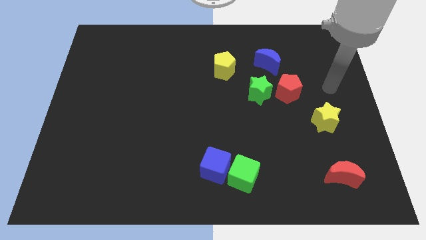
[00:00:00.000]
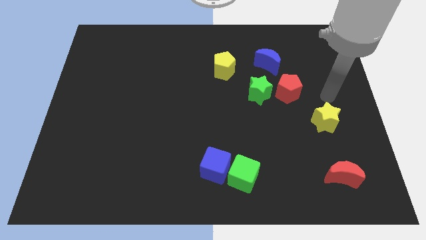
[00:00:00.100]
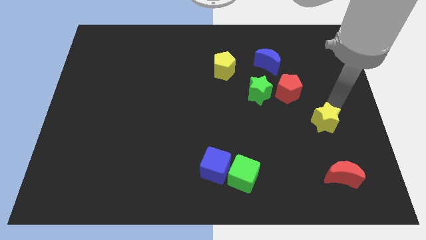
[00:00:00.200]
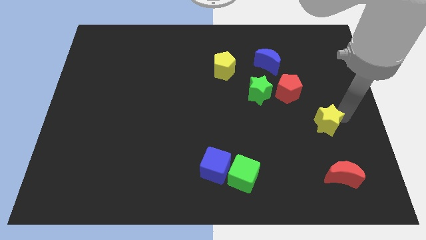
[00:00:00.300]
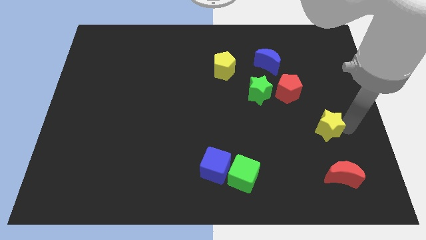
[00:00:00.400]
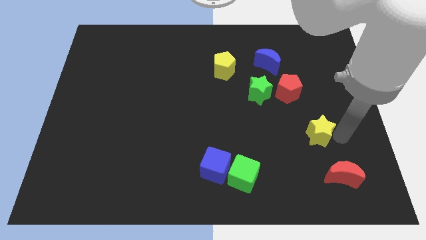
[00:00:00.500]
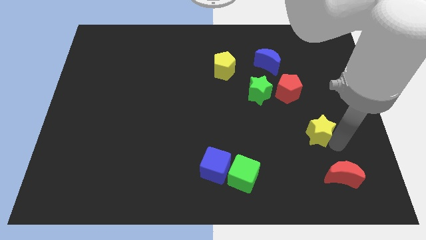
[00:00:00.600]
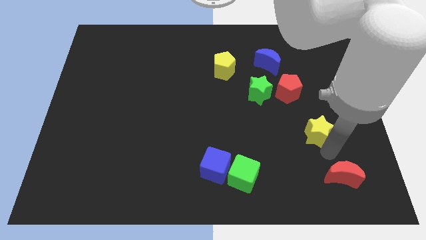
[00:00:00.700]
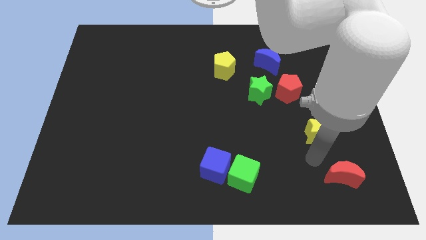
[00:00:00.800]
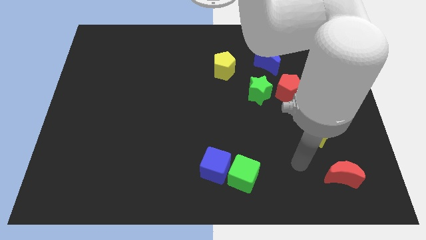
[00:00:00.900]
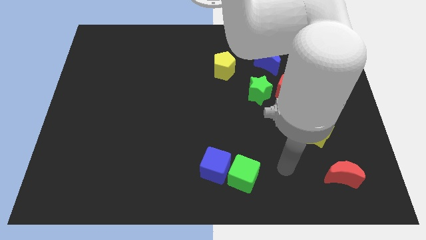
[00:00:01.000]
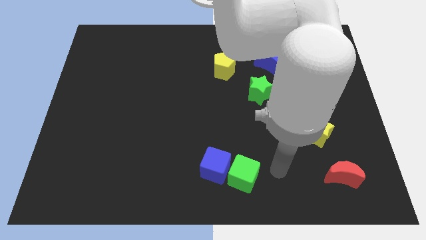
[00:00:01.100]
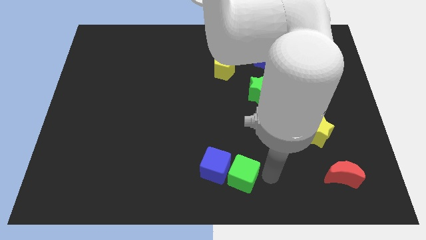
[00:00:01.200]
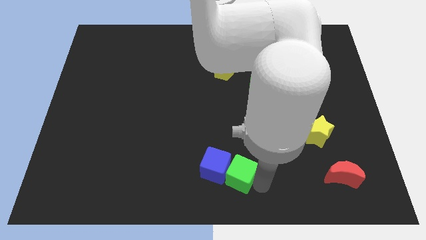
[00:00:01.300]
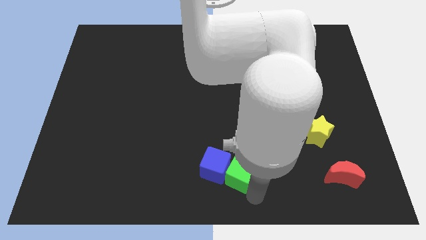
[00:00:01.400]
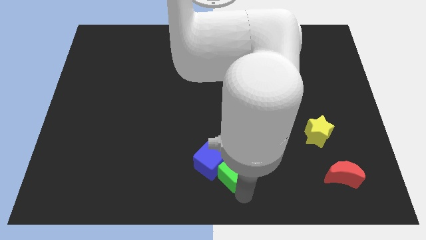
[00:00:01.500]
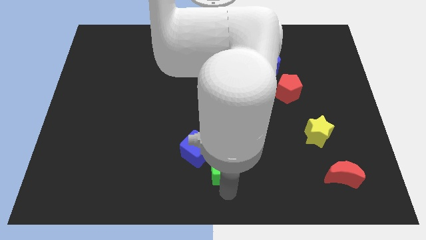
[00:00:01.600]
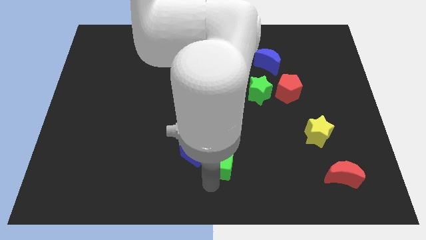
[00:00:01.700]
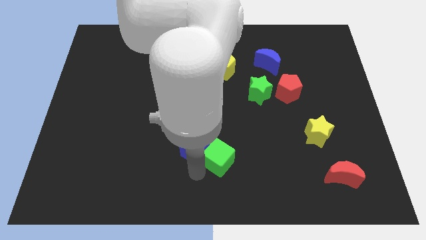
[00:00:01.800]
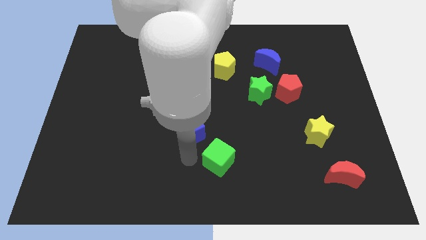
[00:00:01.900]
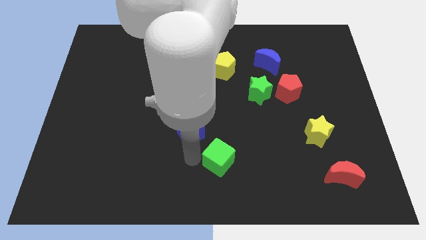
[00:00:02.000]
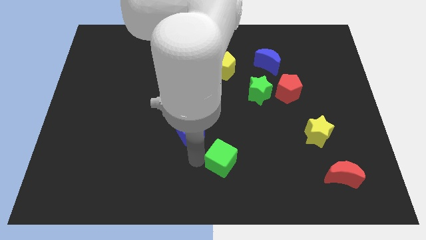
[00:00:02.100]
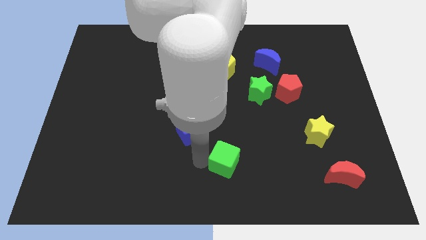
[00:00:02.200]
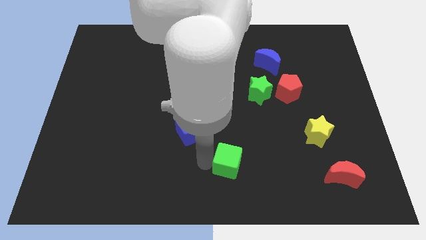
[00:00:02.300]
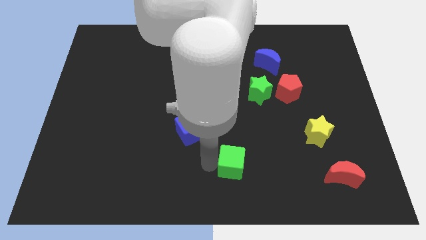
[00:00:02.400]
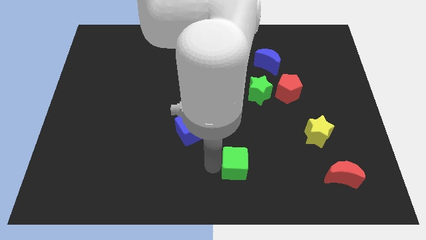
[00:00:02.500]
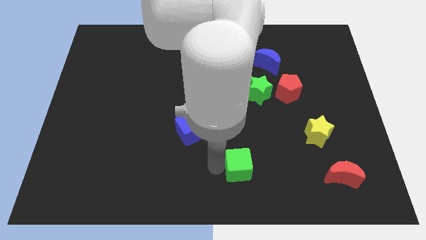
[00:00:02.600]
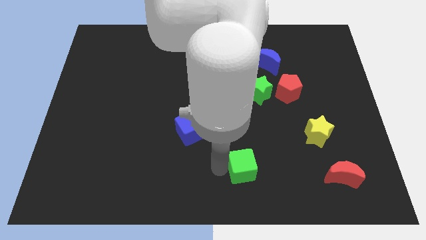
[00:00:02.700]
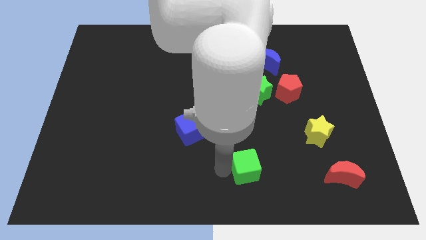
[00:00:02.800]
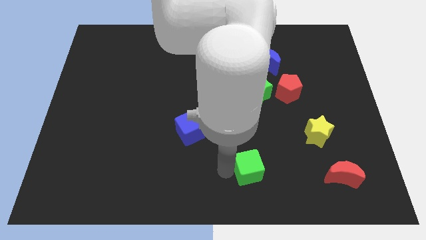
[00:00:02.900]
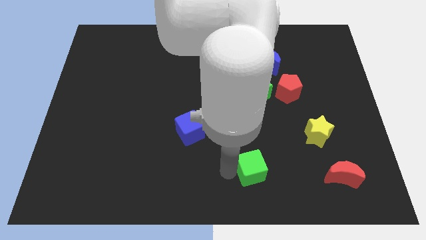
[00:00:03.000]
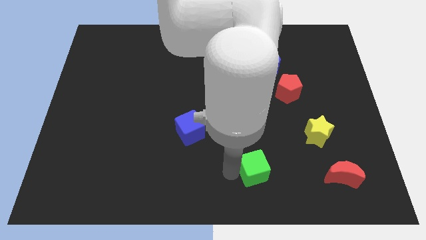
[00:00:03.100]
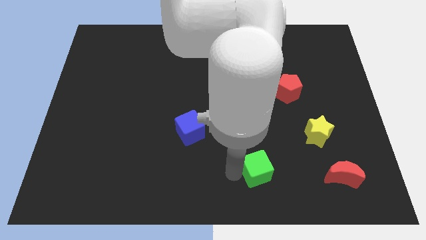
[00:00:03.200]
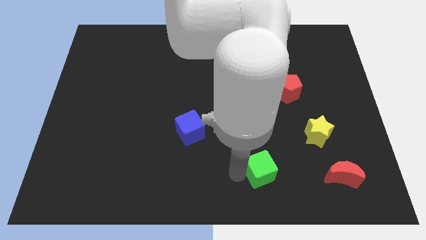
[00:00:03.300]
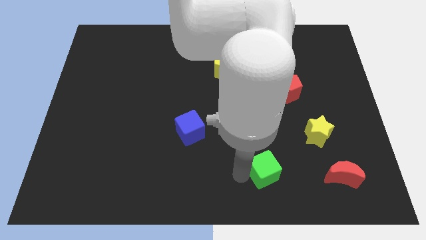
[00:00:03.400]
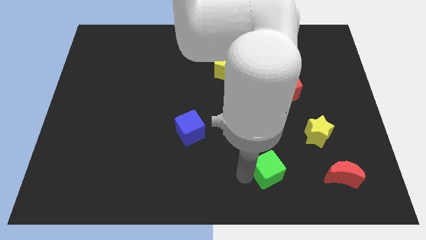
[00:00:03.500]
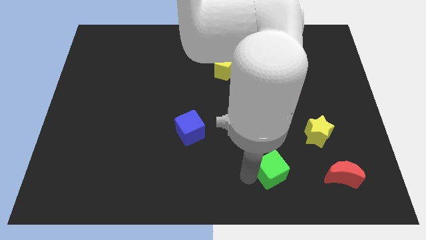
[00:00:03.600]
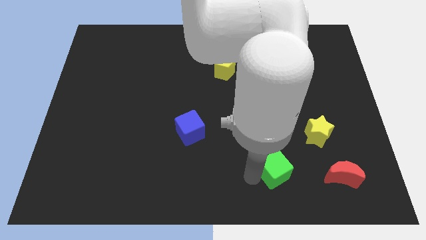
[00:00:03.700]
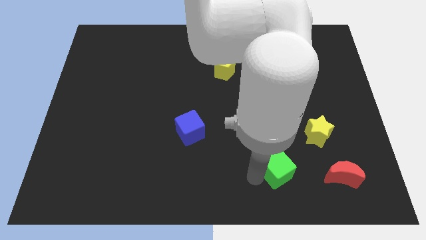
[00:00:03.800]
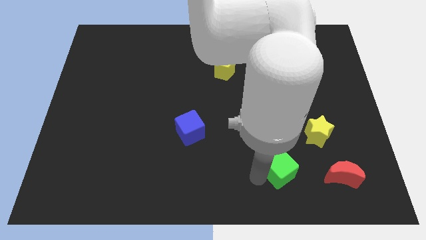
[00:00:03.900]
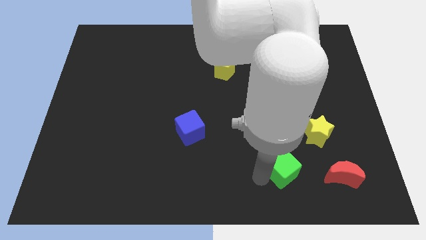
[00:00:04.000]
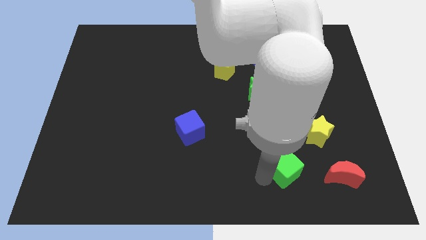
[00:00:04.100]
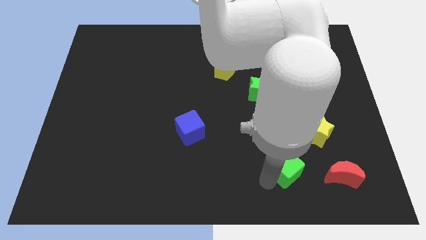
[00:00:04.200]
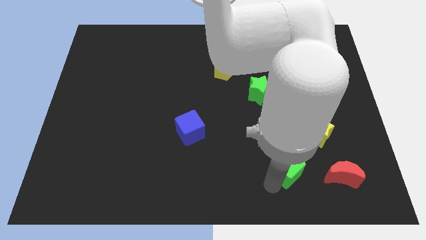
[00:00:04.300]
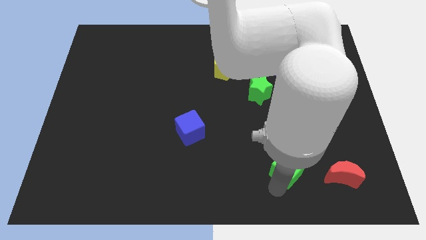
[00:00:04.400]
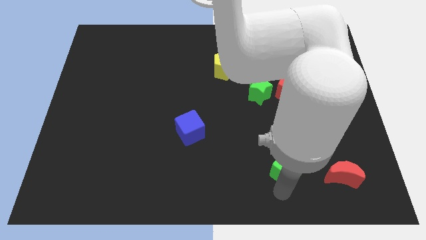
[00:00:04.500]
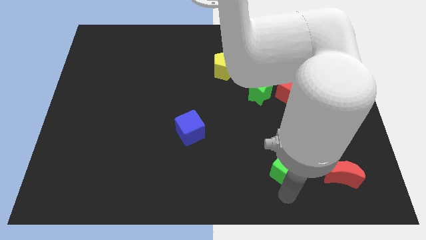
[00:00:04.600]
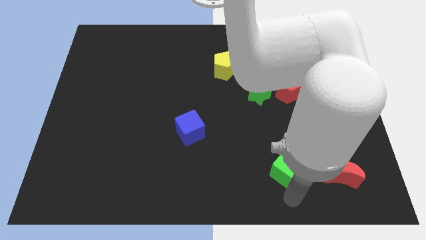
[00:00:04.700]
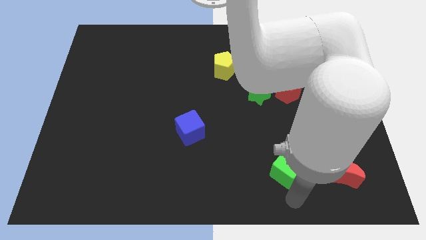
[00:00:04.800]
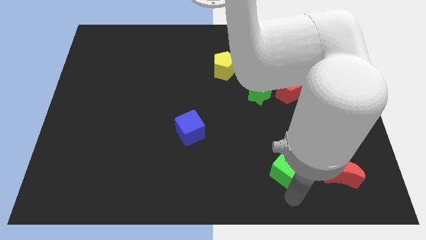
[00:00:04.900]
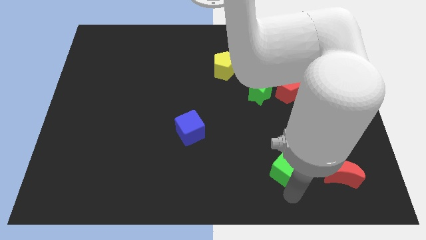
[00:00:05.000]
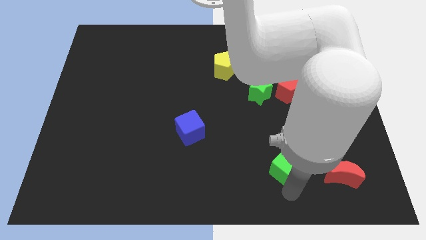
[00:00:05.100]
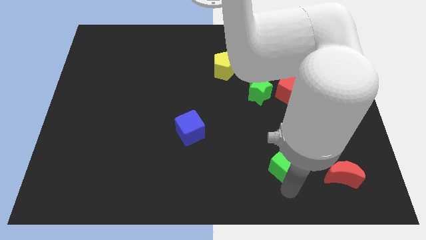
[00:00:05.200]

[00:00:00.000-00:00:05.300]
slightly push the green cube up and then right

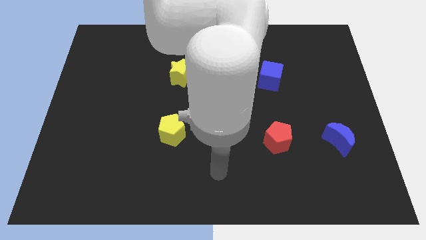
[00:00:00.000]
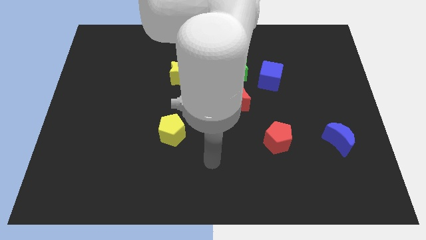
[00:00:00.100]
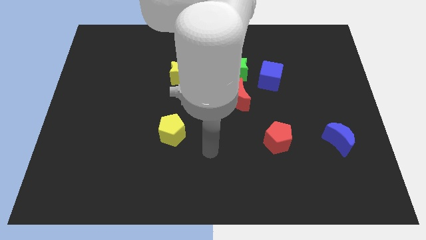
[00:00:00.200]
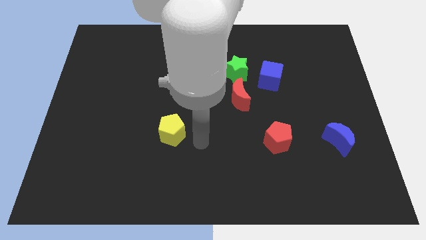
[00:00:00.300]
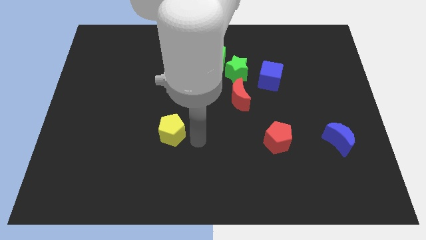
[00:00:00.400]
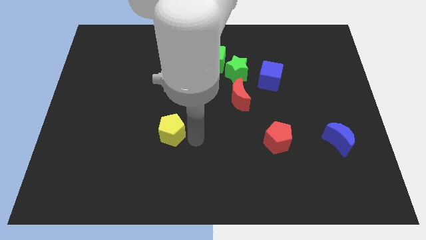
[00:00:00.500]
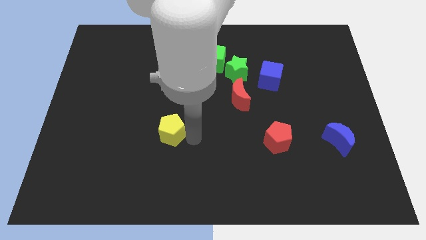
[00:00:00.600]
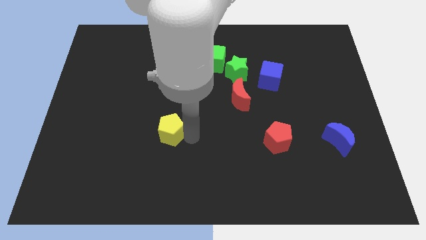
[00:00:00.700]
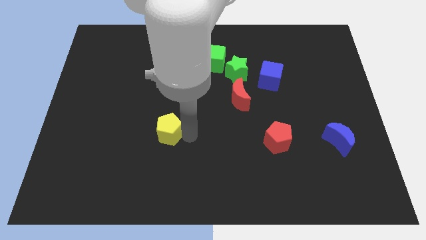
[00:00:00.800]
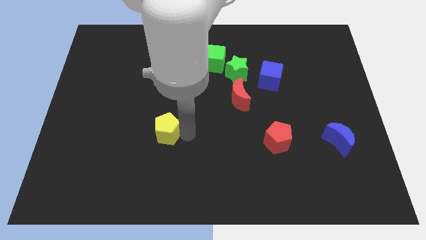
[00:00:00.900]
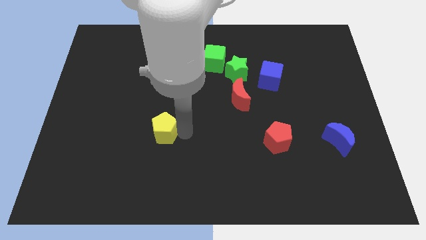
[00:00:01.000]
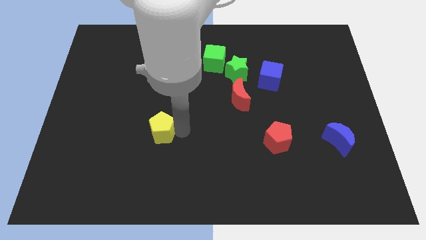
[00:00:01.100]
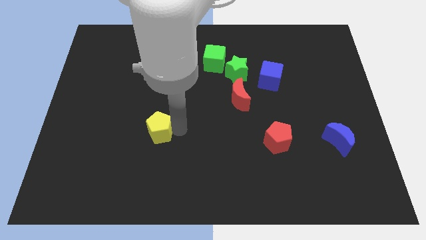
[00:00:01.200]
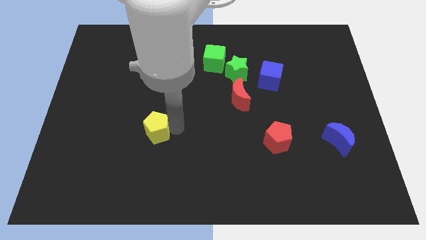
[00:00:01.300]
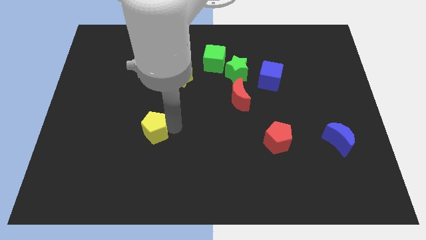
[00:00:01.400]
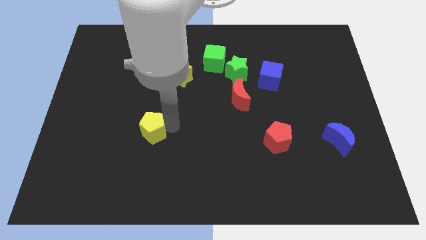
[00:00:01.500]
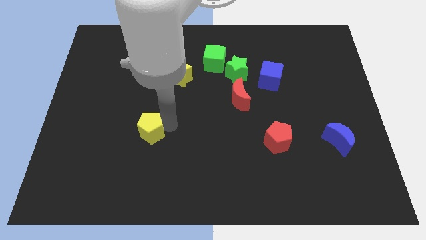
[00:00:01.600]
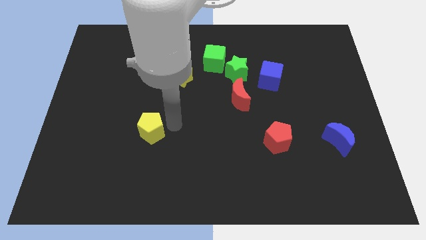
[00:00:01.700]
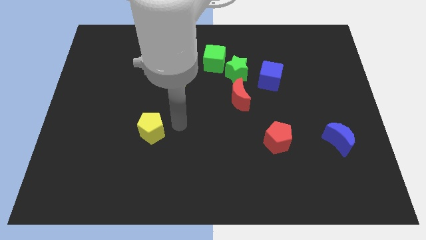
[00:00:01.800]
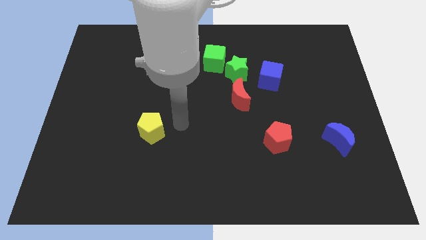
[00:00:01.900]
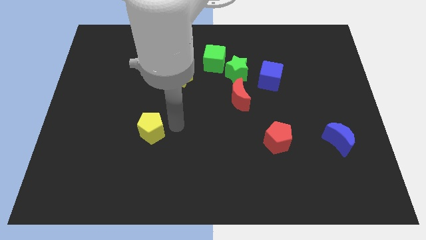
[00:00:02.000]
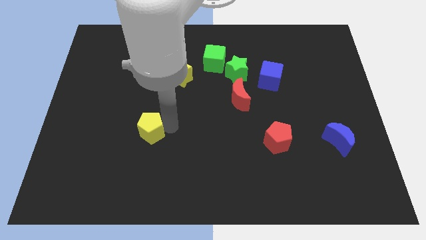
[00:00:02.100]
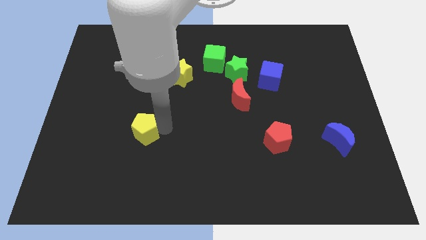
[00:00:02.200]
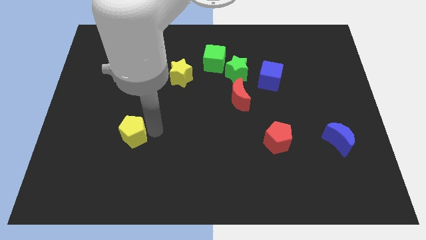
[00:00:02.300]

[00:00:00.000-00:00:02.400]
slide the yellow pentagon a little left

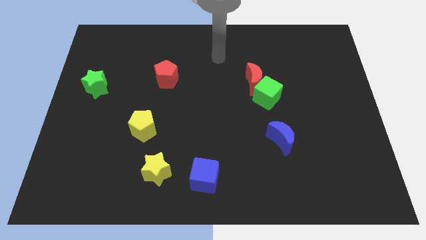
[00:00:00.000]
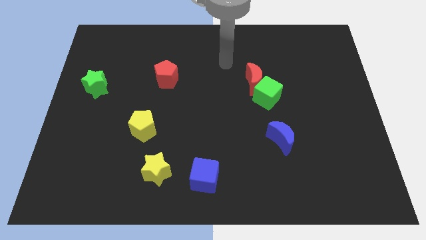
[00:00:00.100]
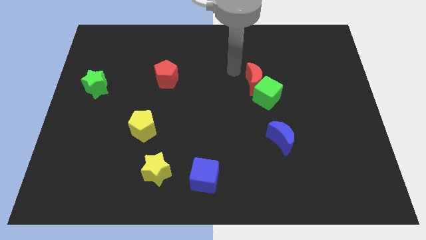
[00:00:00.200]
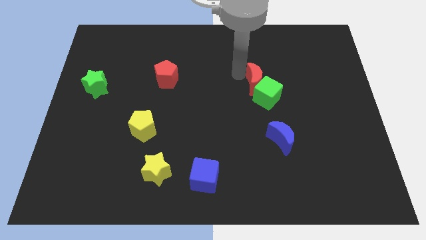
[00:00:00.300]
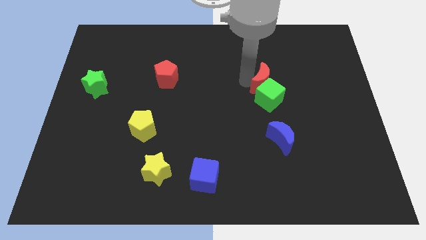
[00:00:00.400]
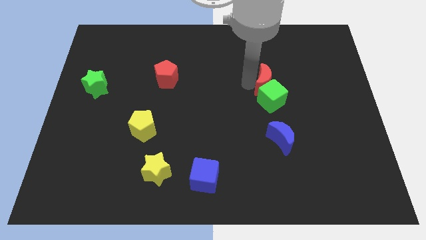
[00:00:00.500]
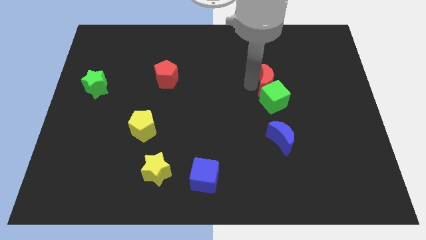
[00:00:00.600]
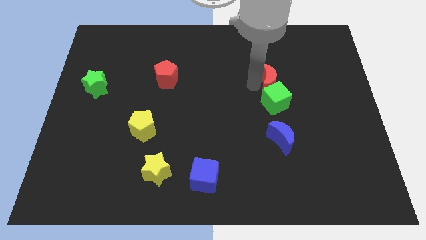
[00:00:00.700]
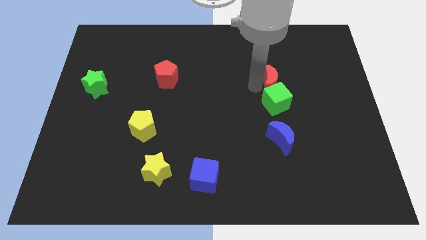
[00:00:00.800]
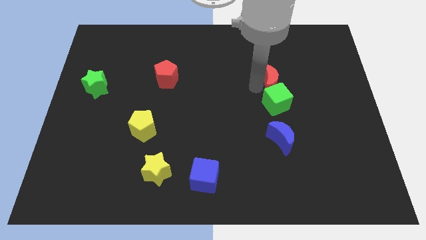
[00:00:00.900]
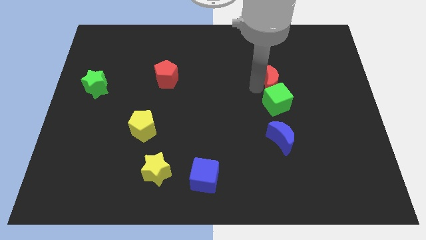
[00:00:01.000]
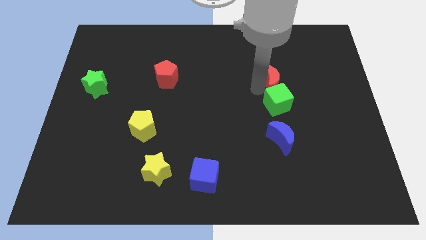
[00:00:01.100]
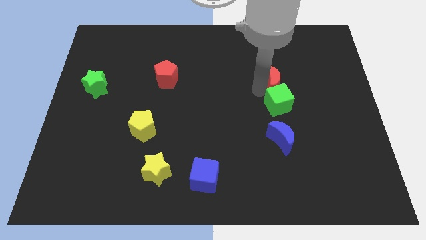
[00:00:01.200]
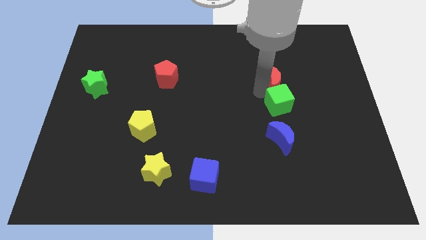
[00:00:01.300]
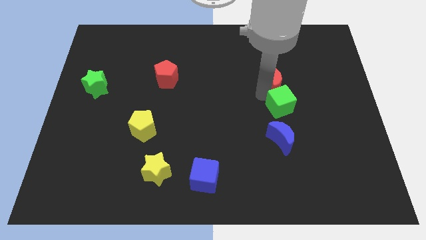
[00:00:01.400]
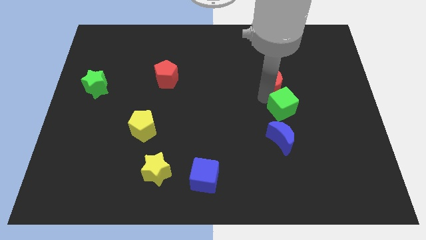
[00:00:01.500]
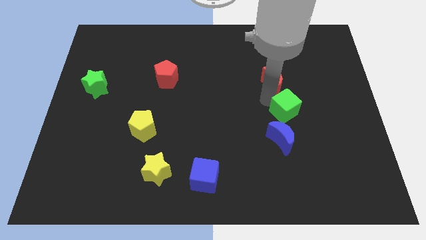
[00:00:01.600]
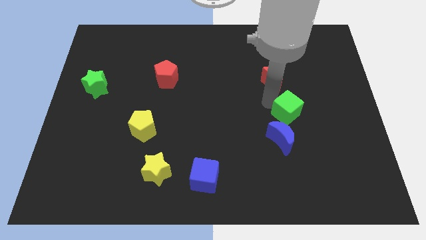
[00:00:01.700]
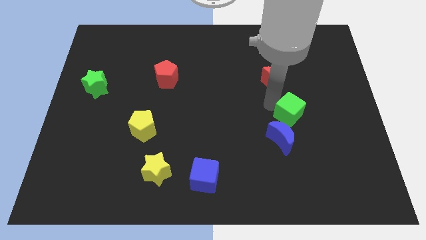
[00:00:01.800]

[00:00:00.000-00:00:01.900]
slightly push the green cube downwards and then right
